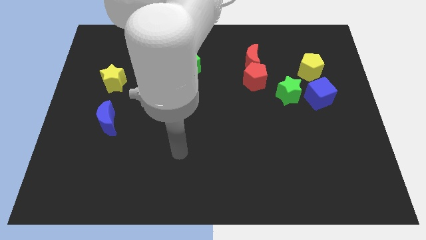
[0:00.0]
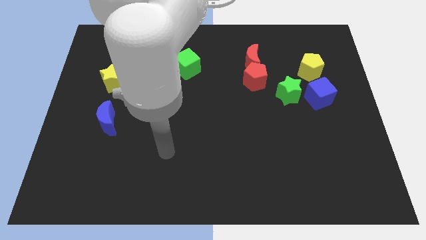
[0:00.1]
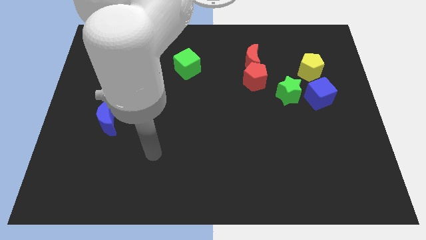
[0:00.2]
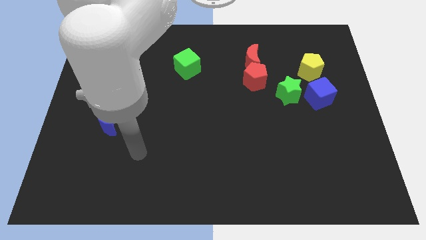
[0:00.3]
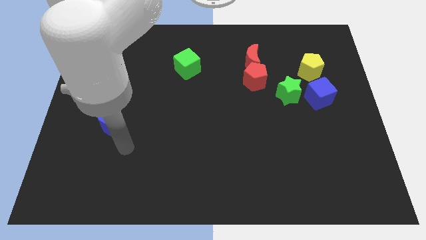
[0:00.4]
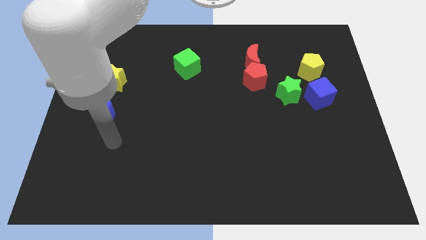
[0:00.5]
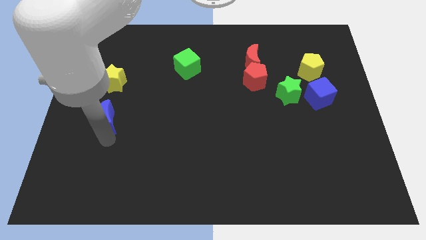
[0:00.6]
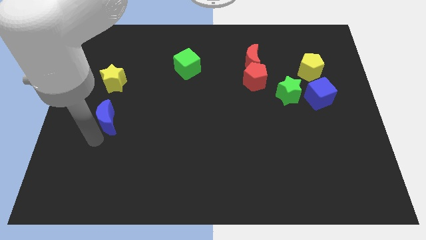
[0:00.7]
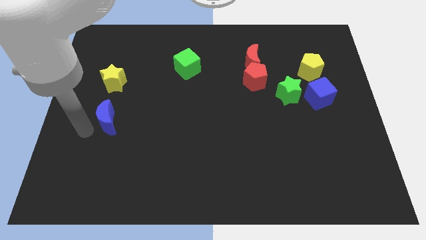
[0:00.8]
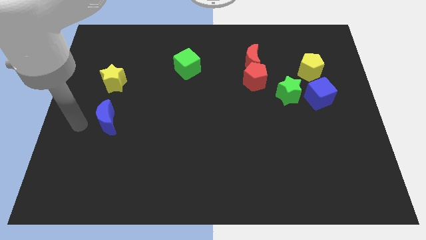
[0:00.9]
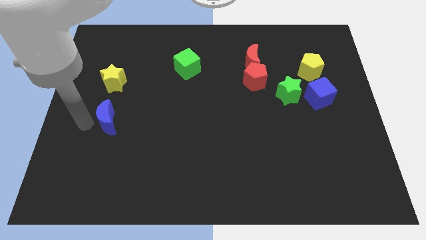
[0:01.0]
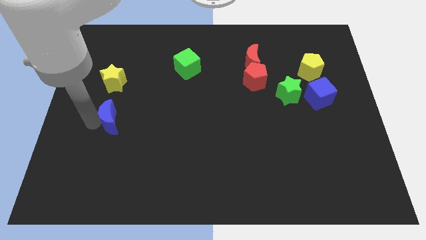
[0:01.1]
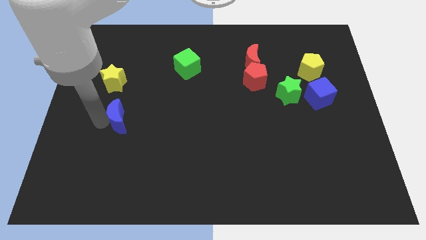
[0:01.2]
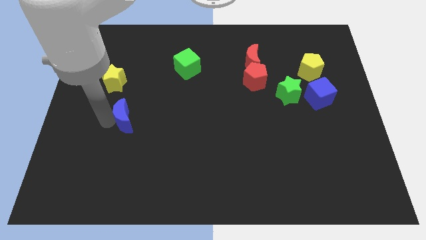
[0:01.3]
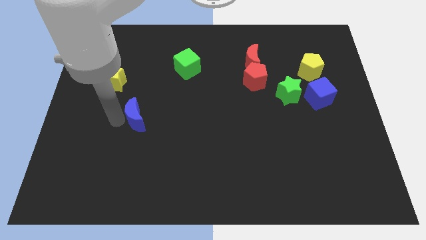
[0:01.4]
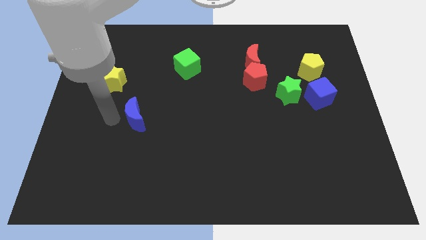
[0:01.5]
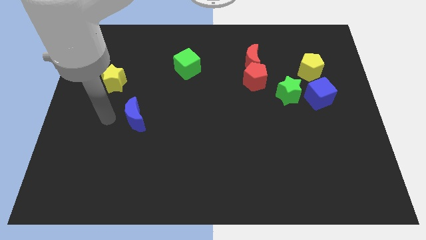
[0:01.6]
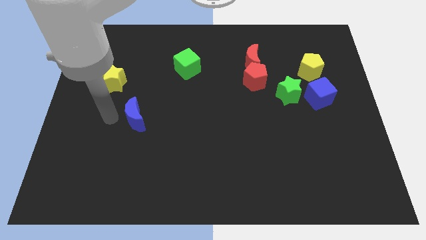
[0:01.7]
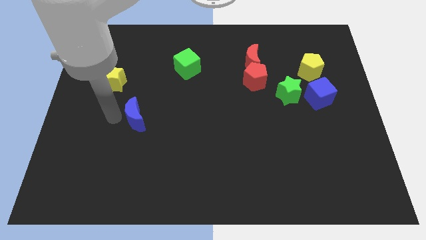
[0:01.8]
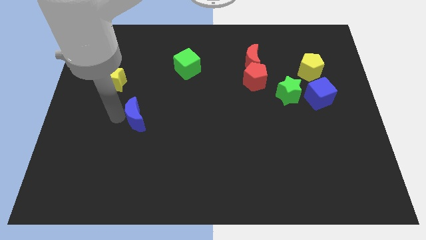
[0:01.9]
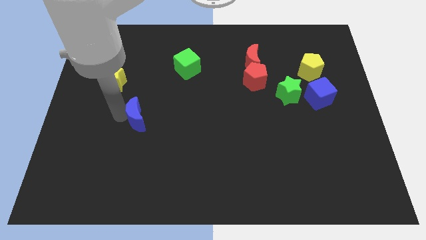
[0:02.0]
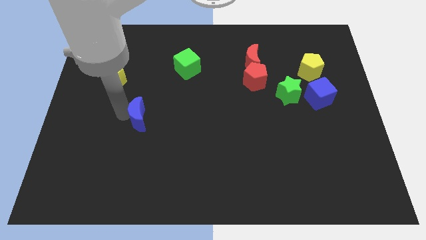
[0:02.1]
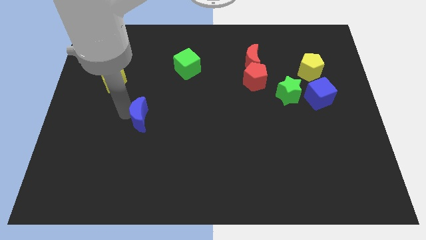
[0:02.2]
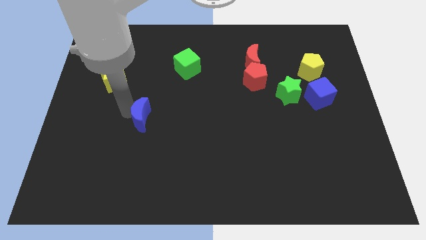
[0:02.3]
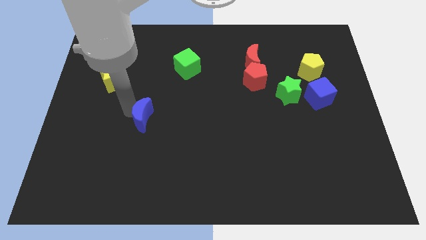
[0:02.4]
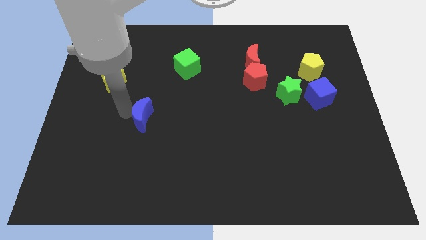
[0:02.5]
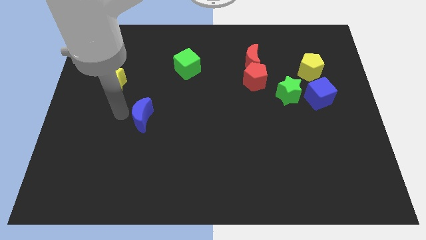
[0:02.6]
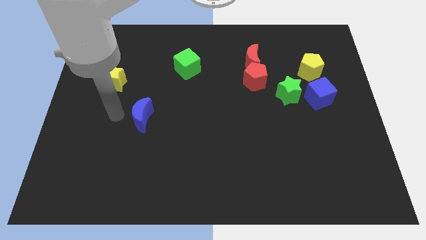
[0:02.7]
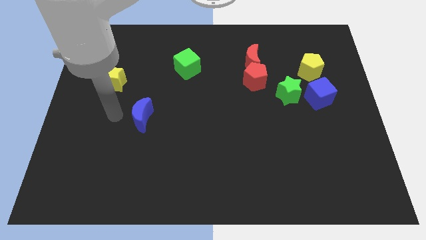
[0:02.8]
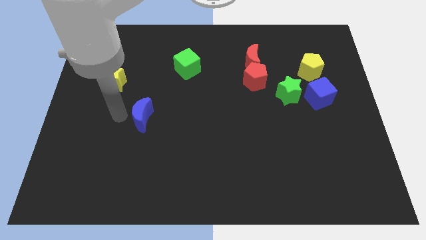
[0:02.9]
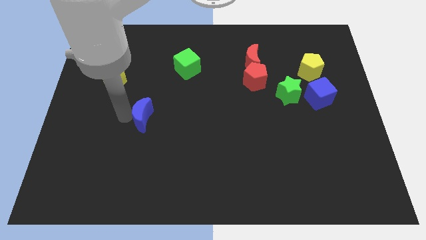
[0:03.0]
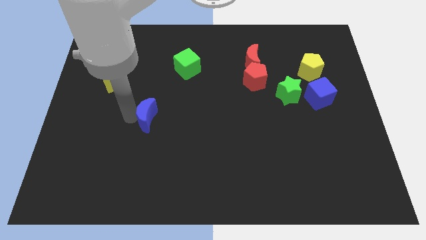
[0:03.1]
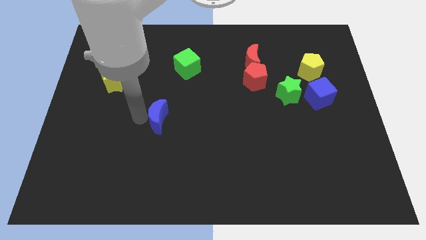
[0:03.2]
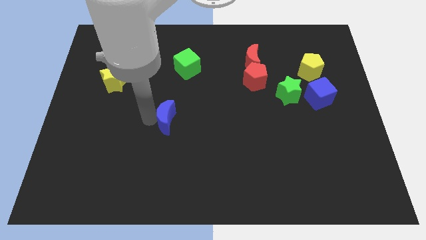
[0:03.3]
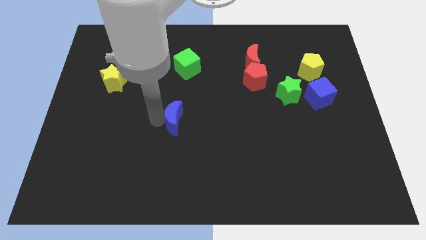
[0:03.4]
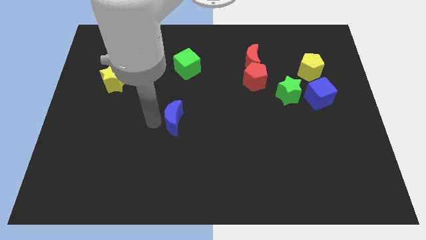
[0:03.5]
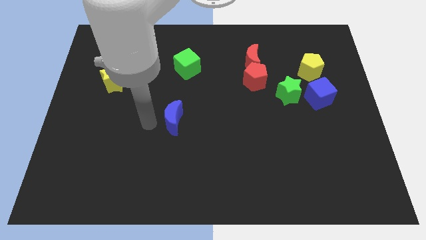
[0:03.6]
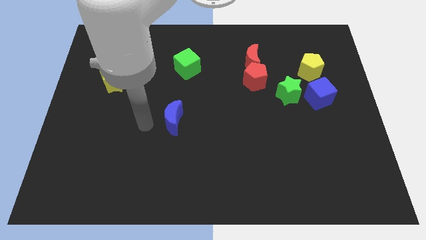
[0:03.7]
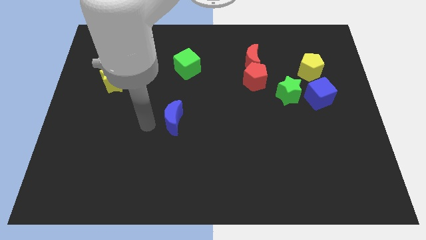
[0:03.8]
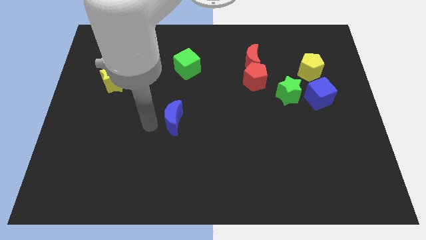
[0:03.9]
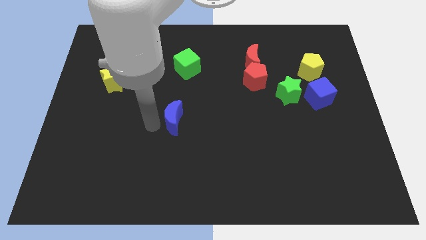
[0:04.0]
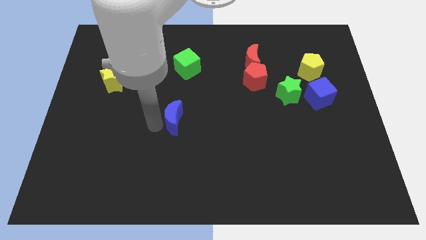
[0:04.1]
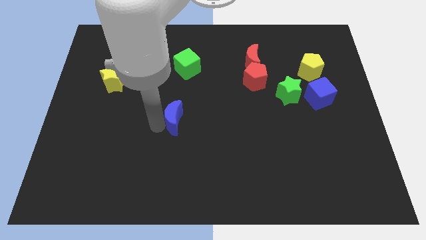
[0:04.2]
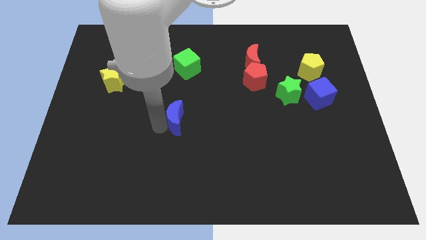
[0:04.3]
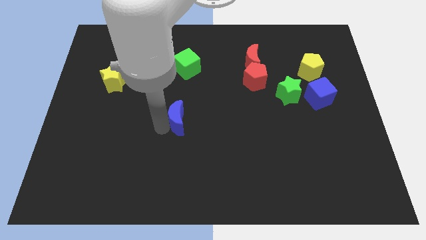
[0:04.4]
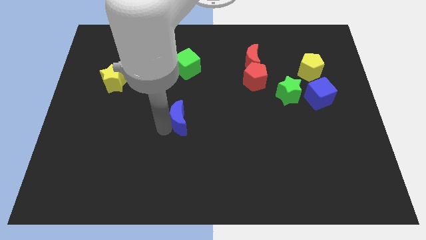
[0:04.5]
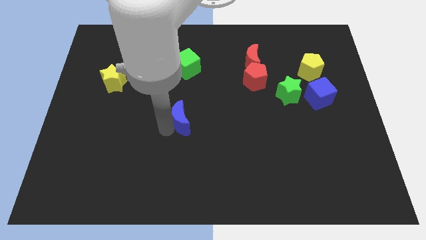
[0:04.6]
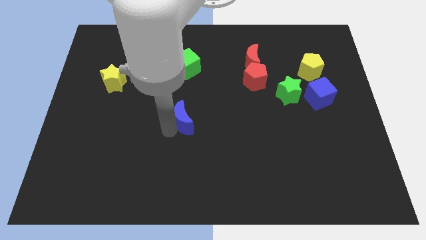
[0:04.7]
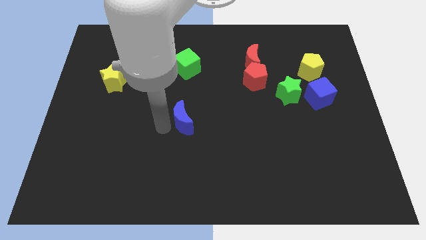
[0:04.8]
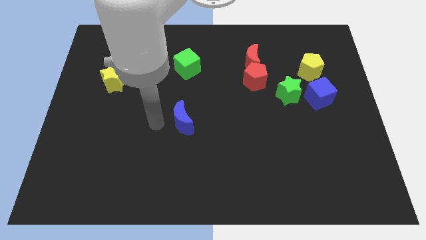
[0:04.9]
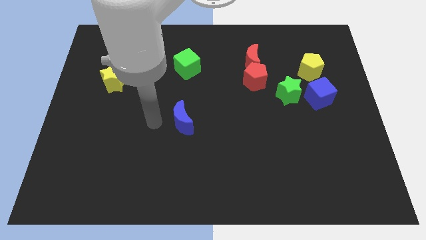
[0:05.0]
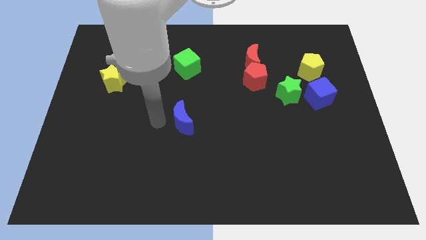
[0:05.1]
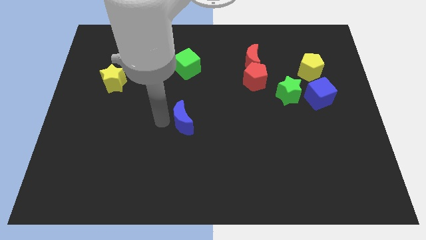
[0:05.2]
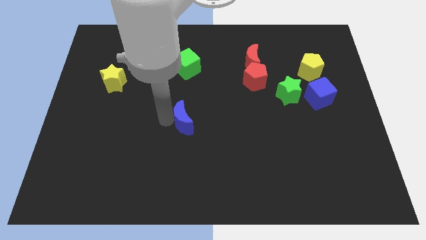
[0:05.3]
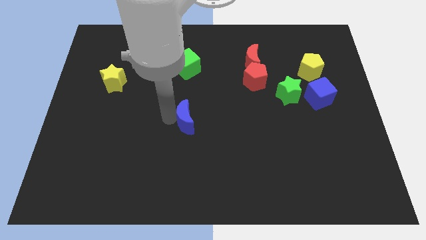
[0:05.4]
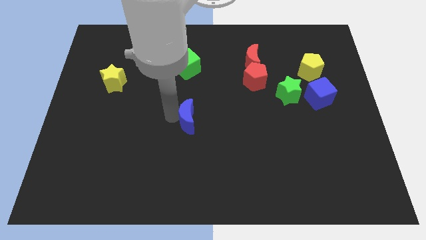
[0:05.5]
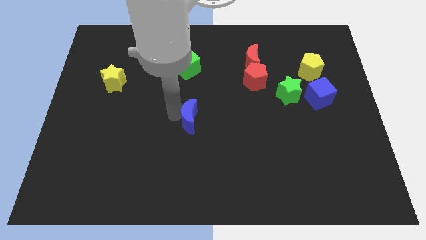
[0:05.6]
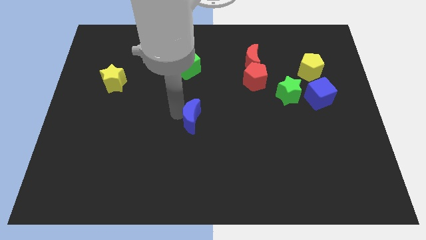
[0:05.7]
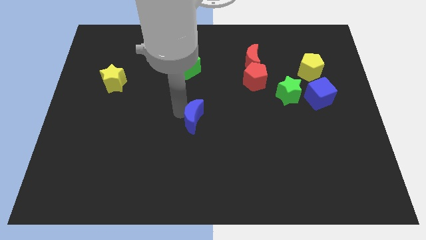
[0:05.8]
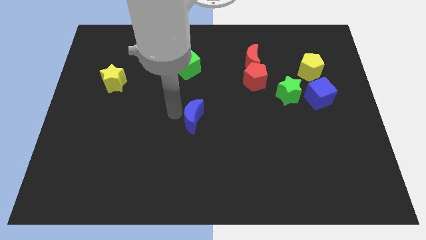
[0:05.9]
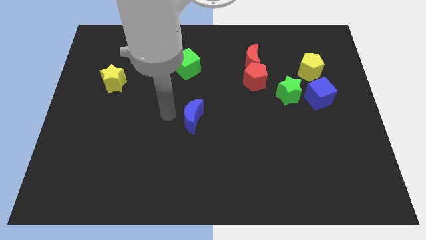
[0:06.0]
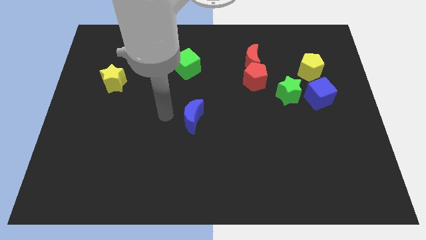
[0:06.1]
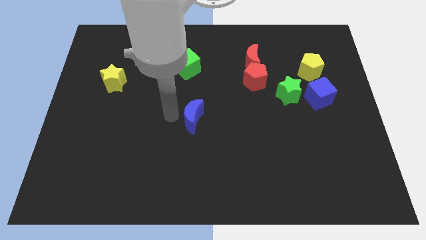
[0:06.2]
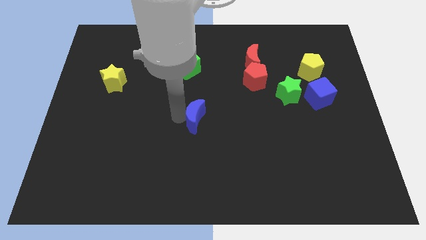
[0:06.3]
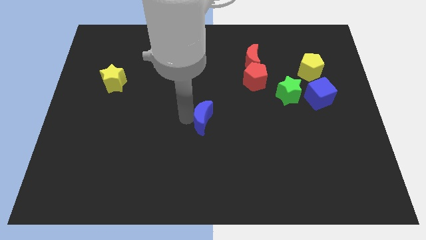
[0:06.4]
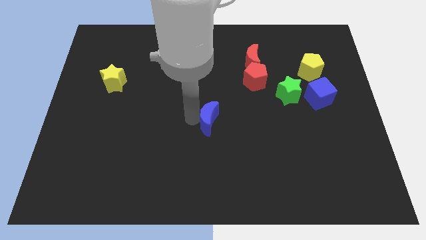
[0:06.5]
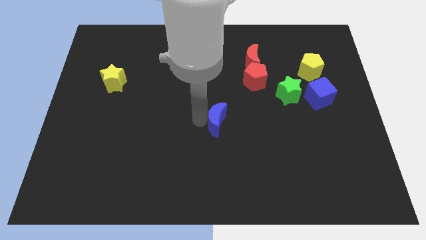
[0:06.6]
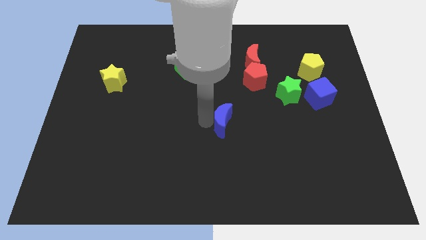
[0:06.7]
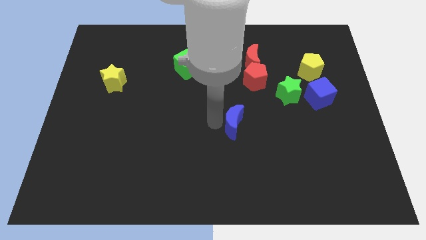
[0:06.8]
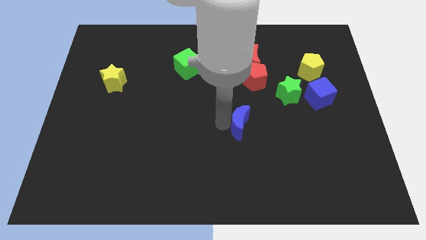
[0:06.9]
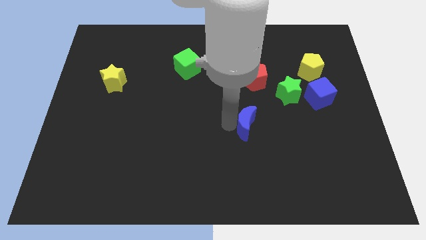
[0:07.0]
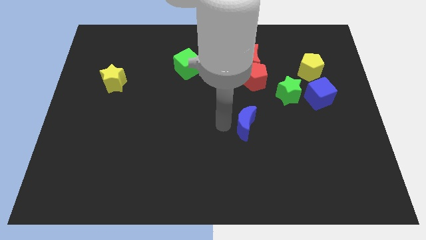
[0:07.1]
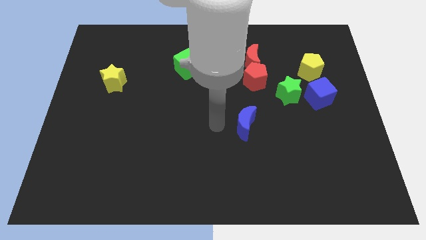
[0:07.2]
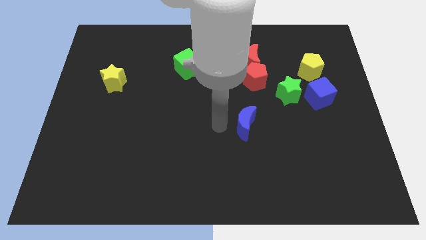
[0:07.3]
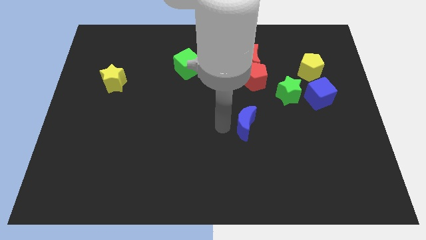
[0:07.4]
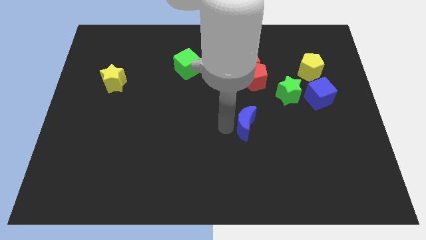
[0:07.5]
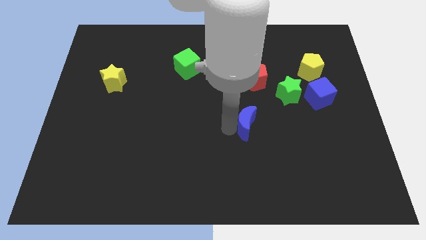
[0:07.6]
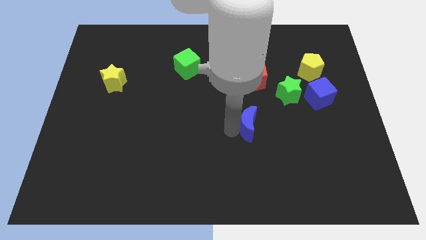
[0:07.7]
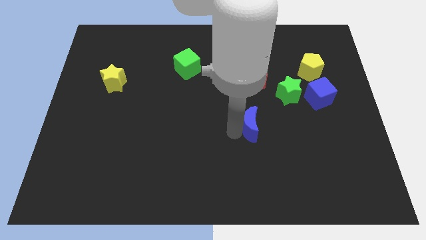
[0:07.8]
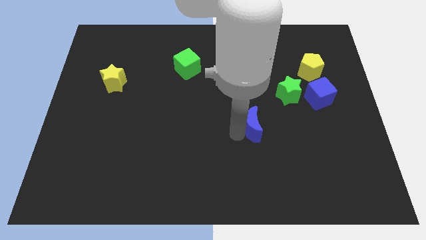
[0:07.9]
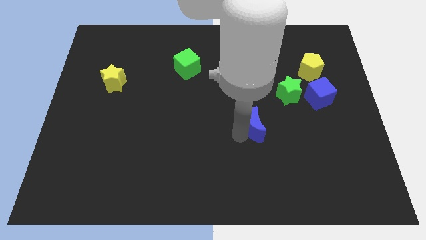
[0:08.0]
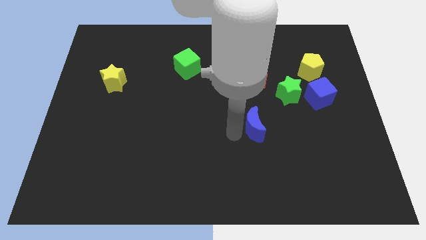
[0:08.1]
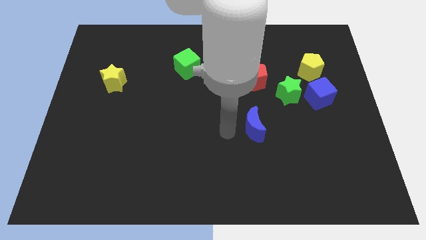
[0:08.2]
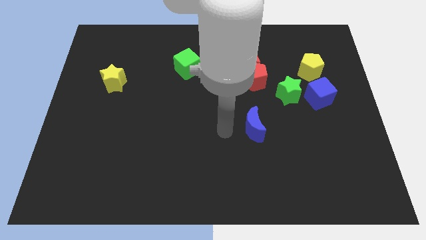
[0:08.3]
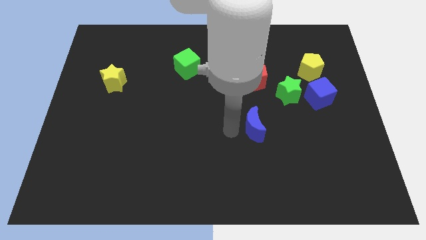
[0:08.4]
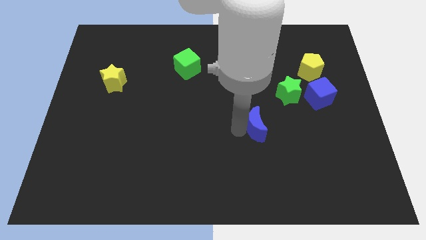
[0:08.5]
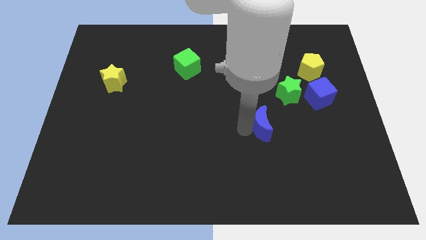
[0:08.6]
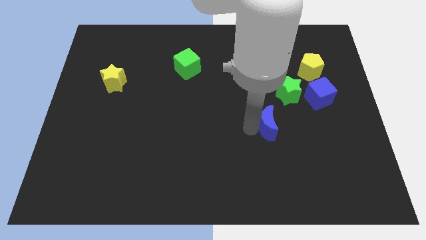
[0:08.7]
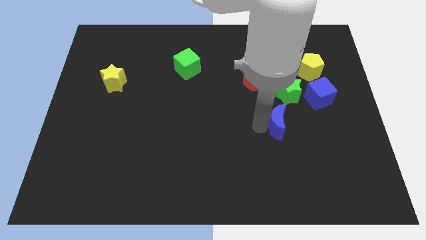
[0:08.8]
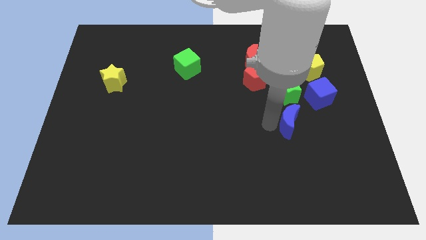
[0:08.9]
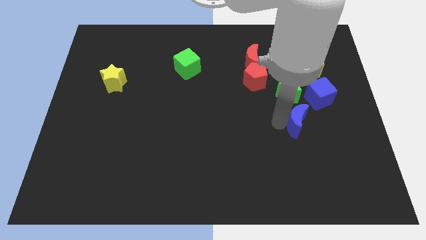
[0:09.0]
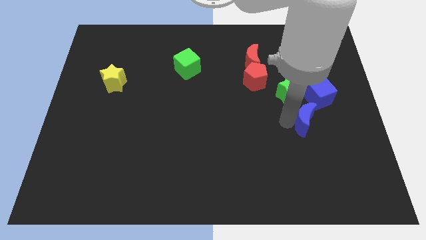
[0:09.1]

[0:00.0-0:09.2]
move the blue moon to the bottom of the blue cube
